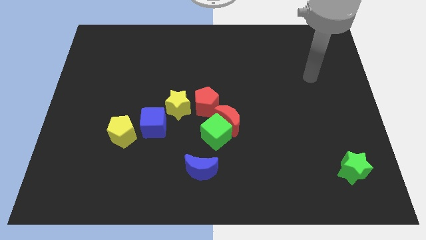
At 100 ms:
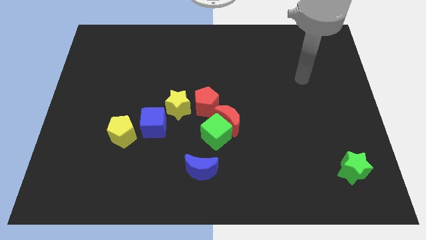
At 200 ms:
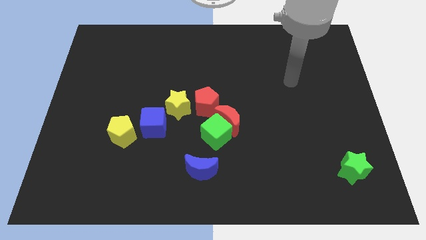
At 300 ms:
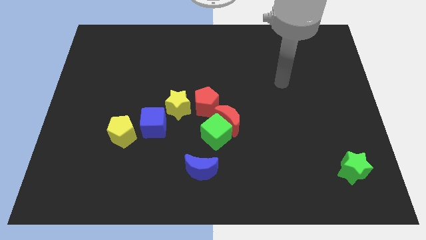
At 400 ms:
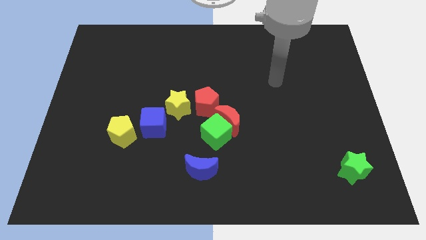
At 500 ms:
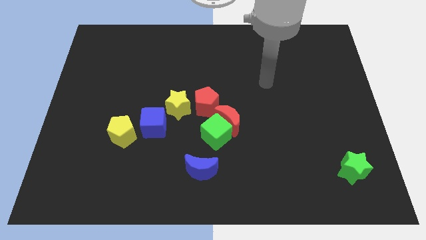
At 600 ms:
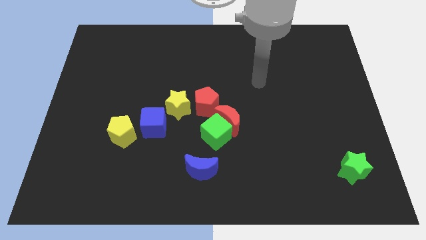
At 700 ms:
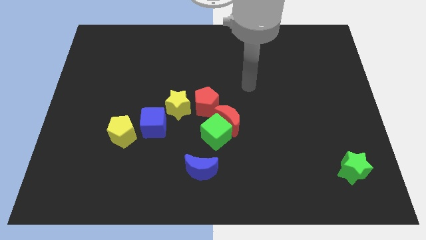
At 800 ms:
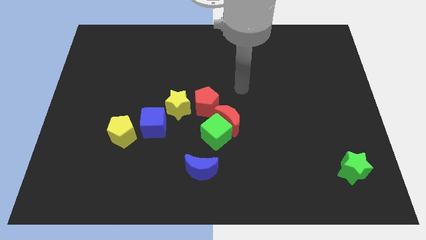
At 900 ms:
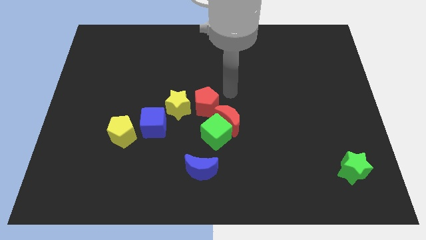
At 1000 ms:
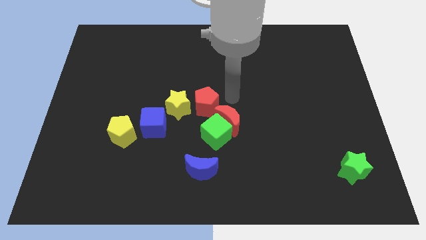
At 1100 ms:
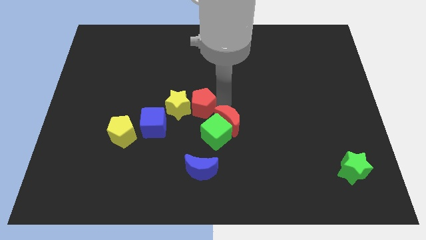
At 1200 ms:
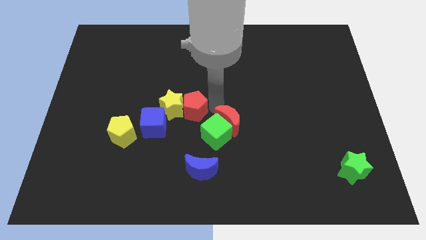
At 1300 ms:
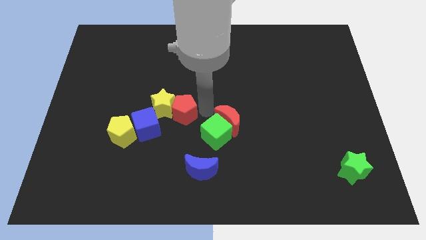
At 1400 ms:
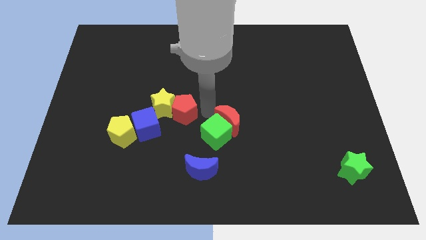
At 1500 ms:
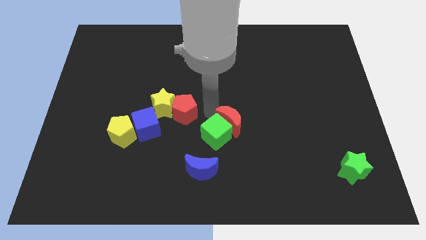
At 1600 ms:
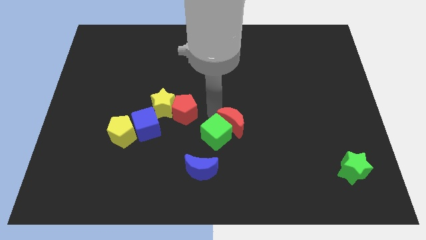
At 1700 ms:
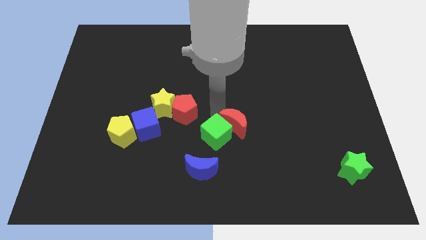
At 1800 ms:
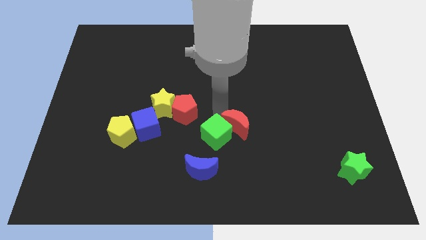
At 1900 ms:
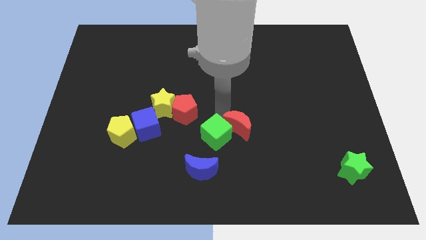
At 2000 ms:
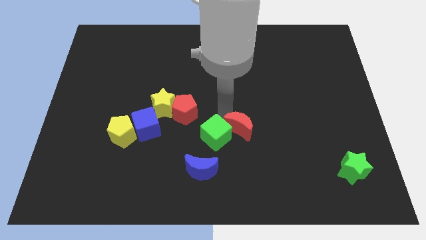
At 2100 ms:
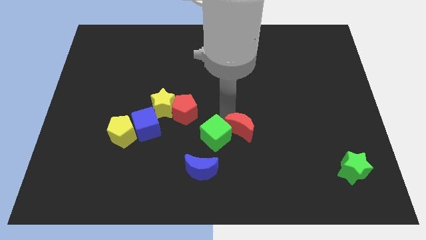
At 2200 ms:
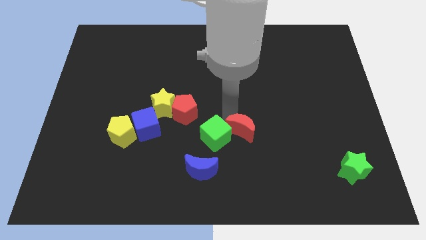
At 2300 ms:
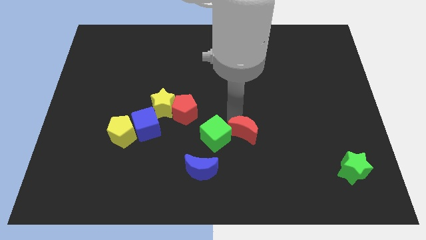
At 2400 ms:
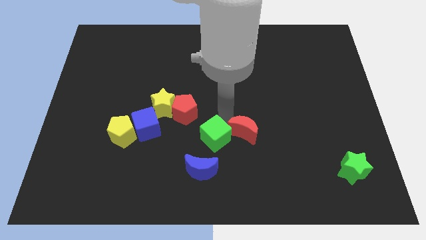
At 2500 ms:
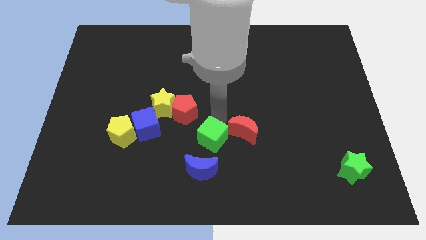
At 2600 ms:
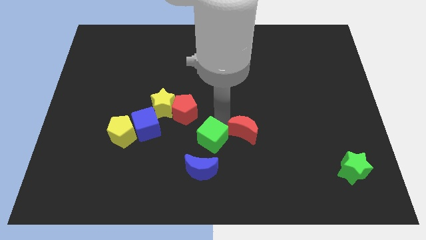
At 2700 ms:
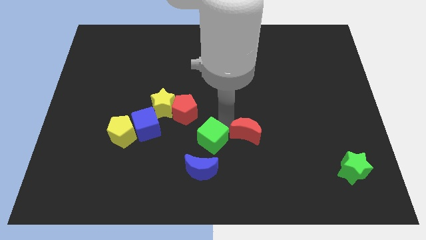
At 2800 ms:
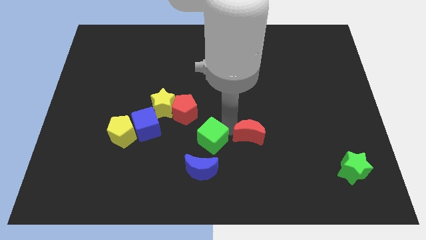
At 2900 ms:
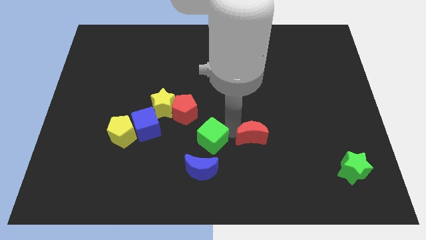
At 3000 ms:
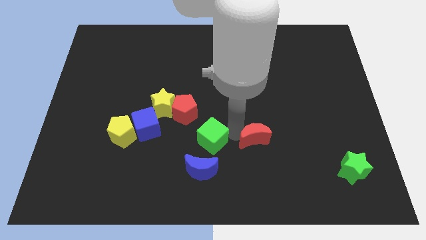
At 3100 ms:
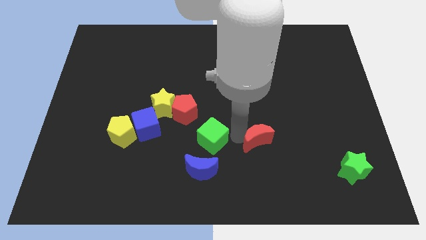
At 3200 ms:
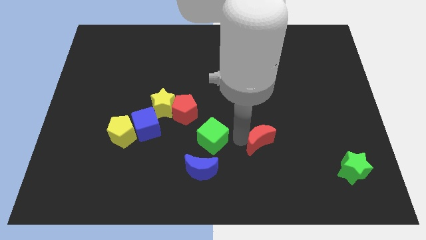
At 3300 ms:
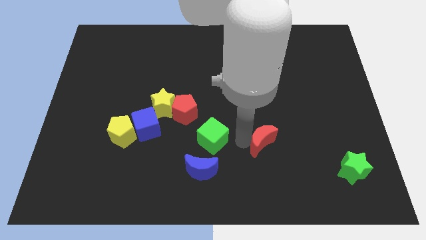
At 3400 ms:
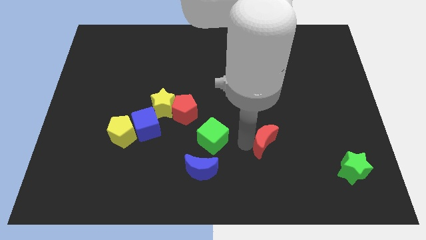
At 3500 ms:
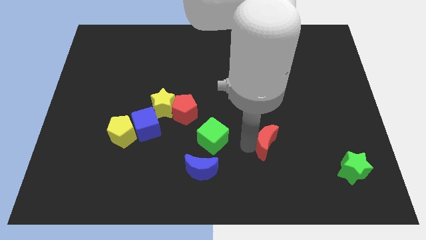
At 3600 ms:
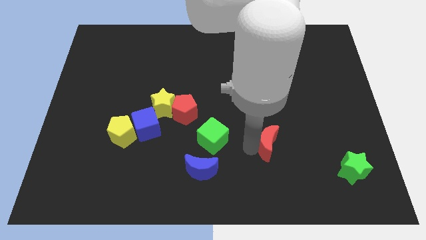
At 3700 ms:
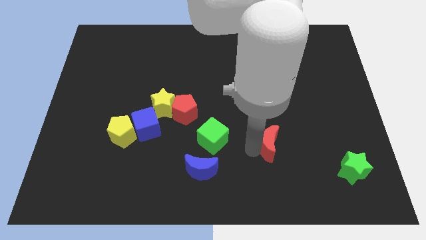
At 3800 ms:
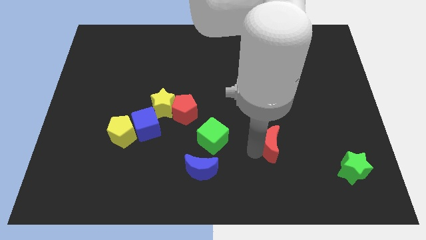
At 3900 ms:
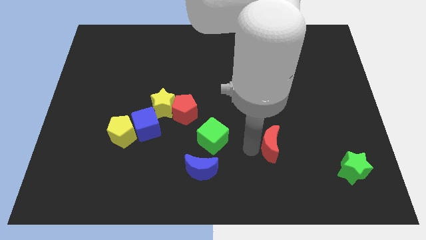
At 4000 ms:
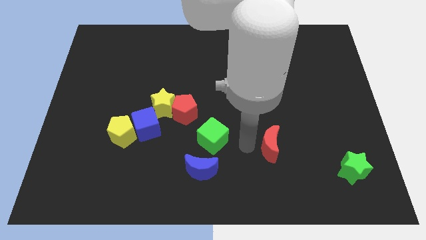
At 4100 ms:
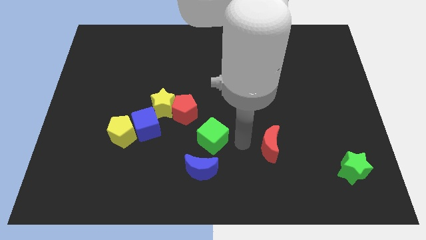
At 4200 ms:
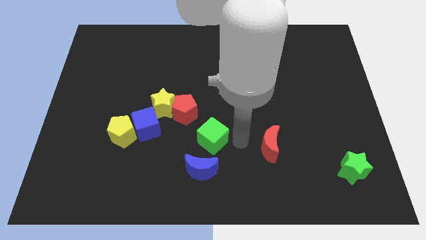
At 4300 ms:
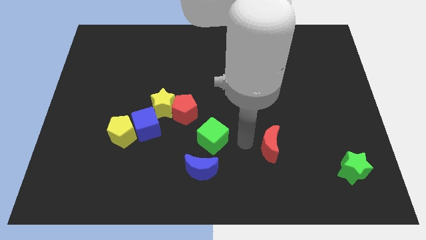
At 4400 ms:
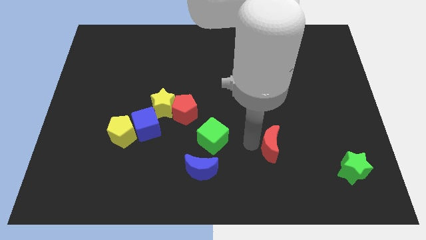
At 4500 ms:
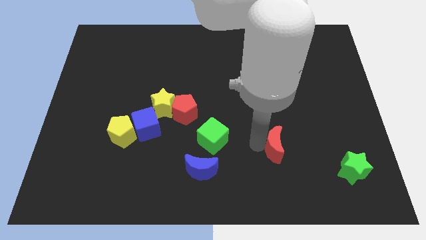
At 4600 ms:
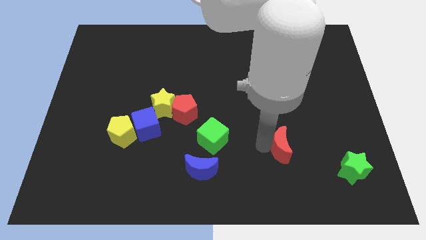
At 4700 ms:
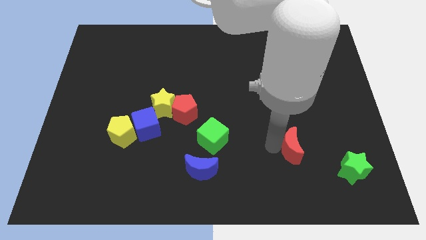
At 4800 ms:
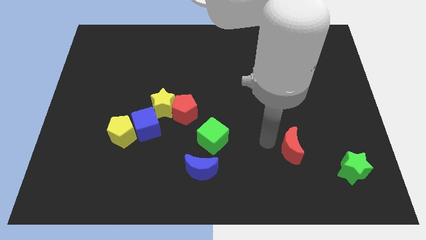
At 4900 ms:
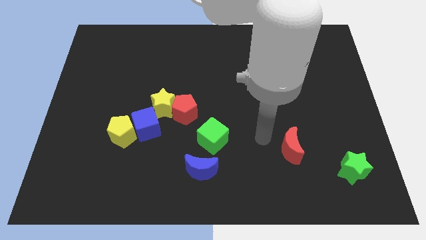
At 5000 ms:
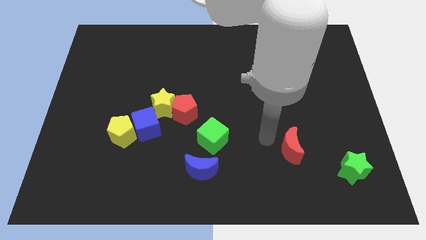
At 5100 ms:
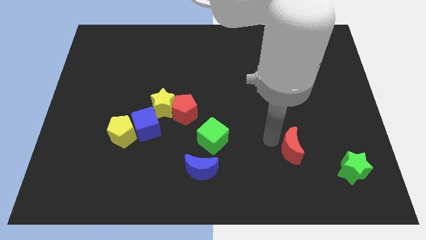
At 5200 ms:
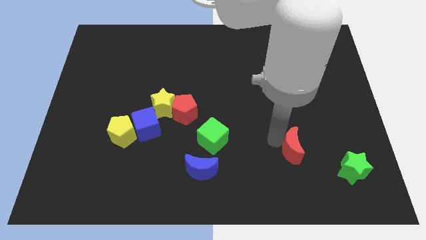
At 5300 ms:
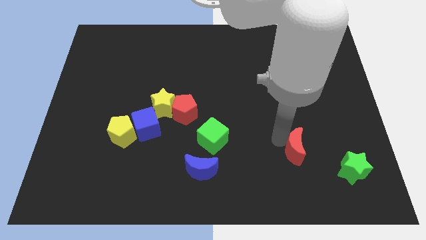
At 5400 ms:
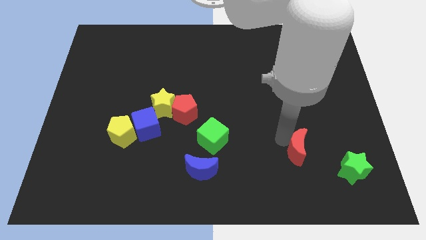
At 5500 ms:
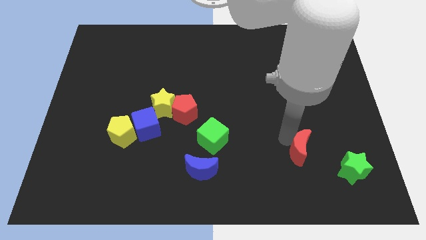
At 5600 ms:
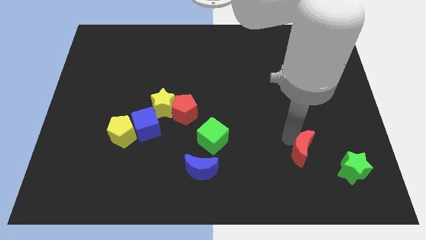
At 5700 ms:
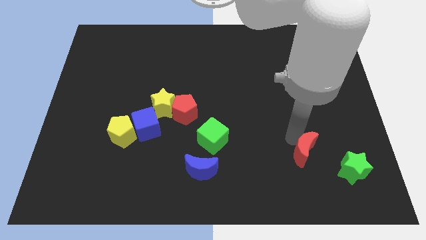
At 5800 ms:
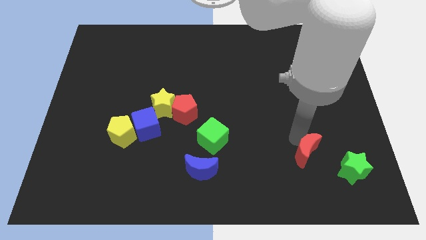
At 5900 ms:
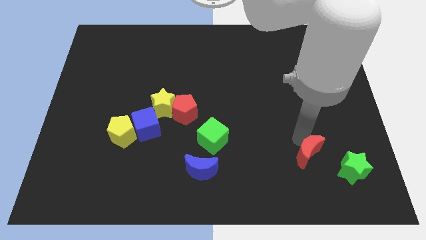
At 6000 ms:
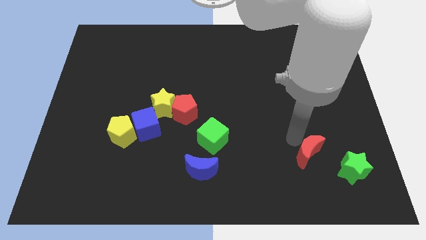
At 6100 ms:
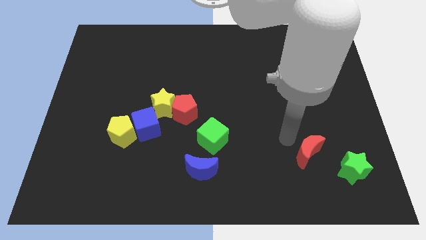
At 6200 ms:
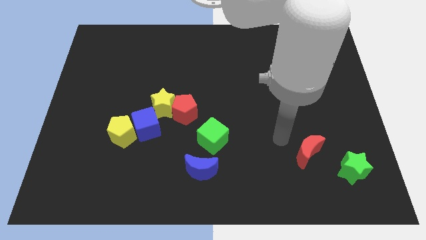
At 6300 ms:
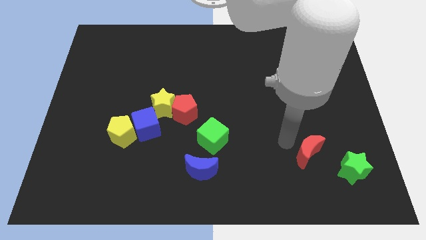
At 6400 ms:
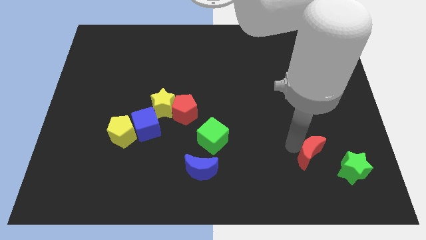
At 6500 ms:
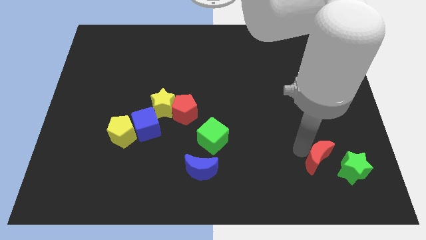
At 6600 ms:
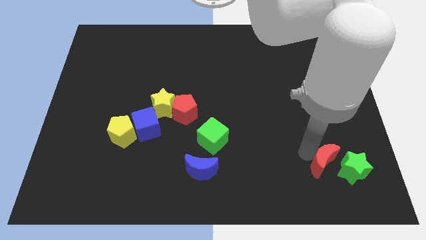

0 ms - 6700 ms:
move the red moon to the green star

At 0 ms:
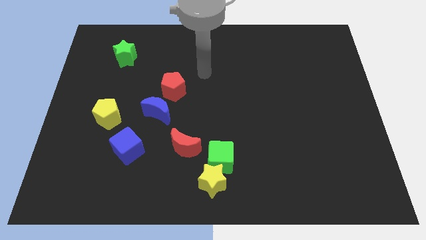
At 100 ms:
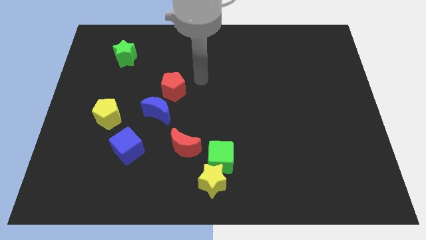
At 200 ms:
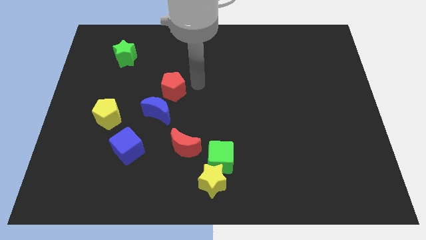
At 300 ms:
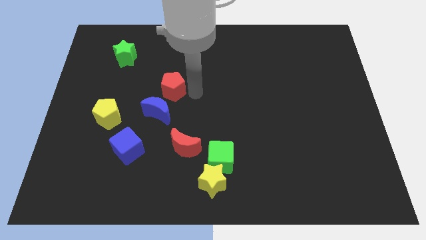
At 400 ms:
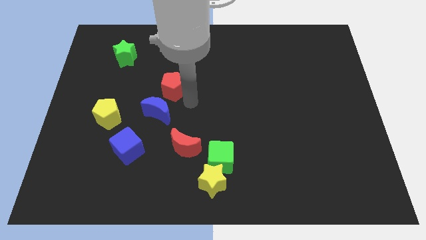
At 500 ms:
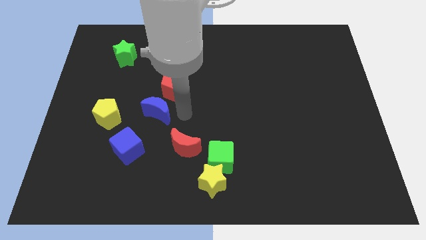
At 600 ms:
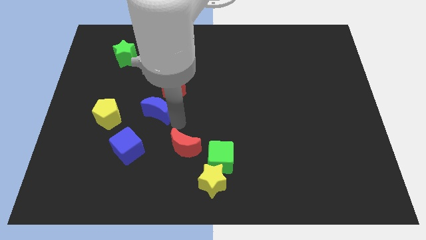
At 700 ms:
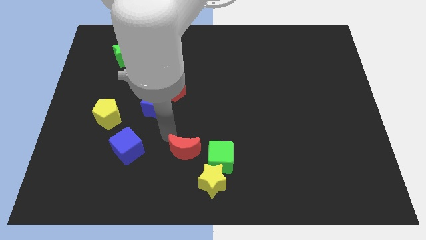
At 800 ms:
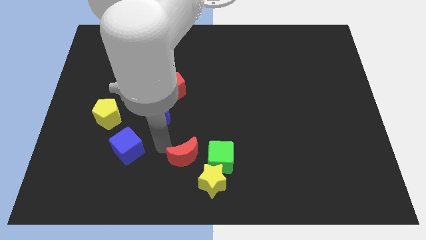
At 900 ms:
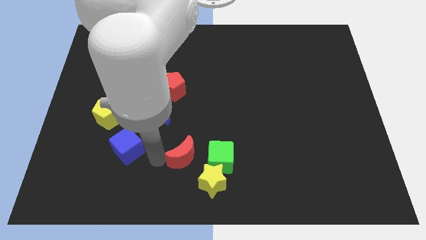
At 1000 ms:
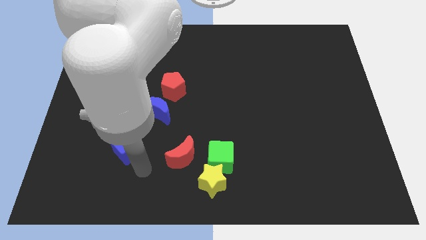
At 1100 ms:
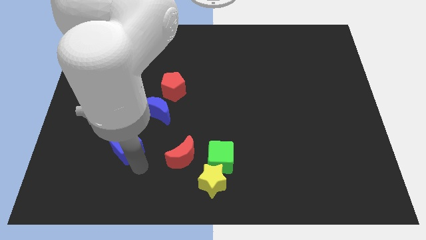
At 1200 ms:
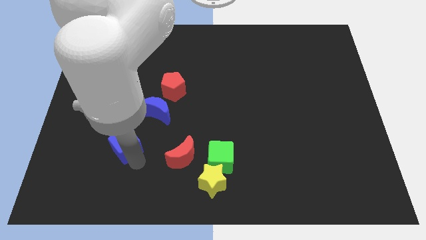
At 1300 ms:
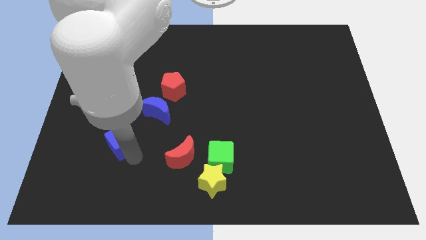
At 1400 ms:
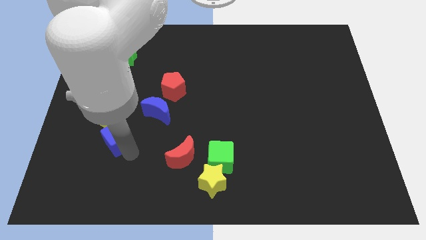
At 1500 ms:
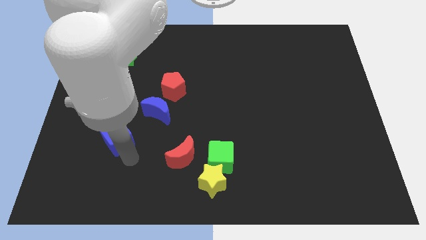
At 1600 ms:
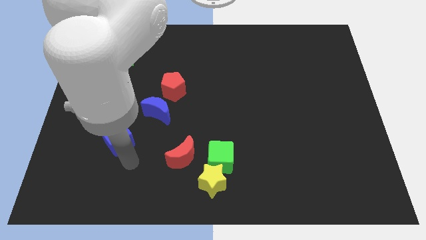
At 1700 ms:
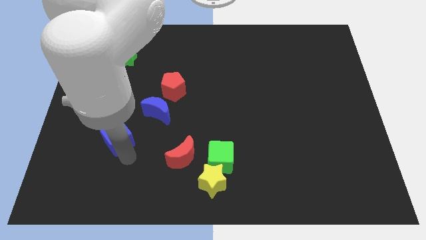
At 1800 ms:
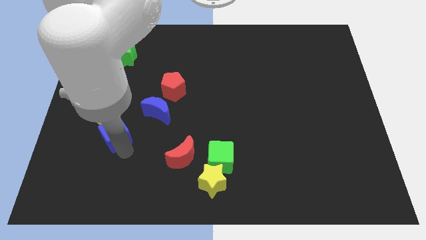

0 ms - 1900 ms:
move the blue cube to the yellow pentagon
